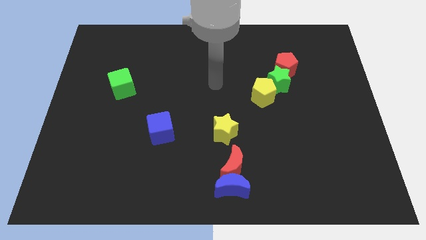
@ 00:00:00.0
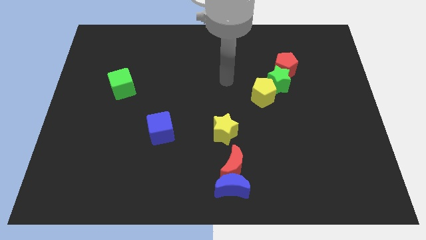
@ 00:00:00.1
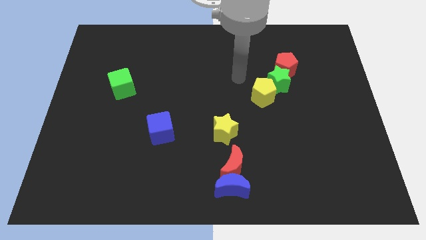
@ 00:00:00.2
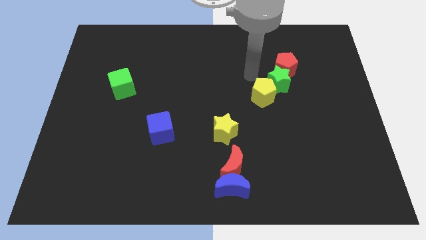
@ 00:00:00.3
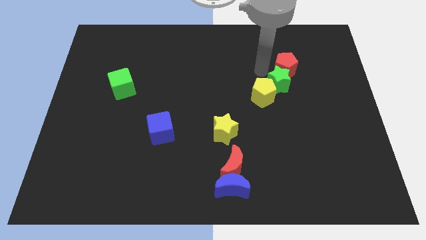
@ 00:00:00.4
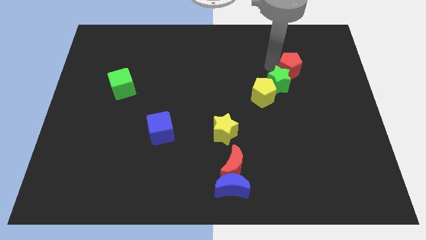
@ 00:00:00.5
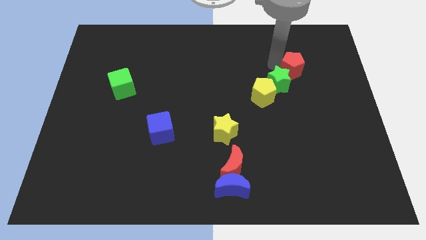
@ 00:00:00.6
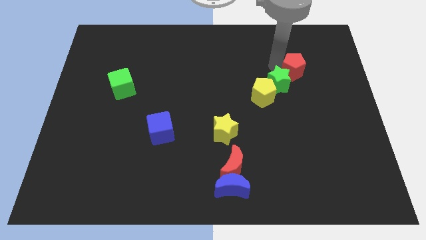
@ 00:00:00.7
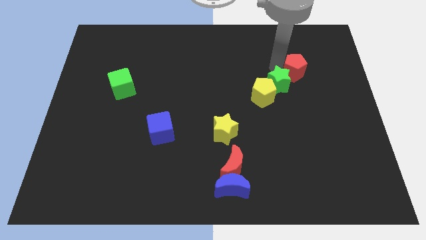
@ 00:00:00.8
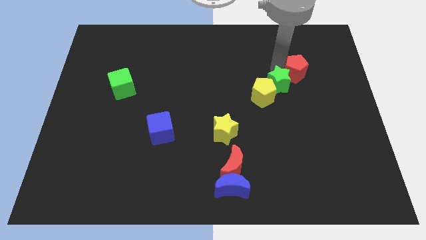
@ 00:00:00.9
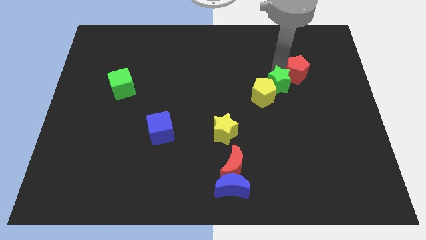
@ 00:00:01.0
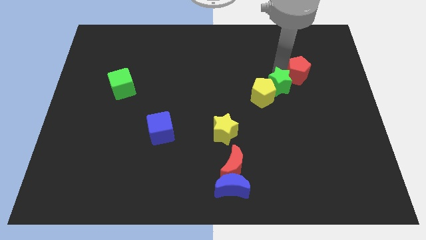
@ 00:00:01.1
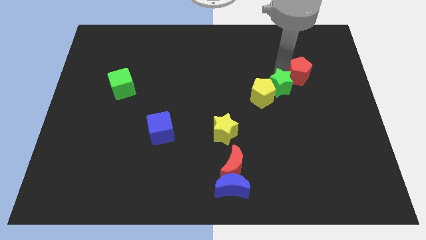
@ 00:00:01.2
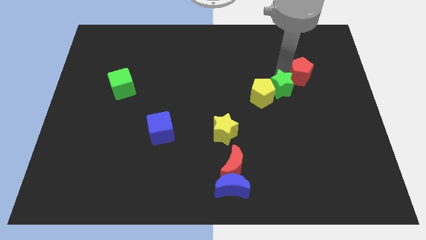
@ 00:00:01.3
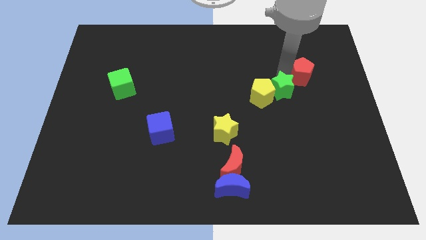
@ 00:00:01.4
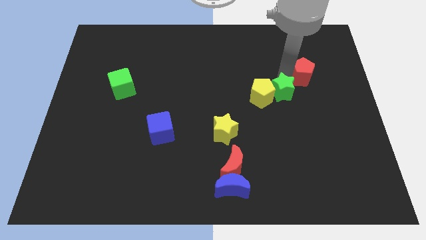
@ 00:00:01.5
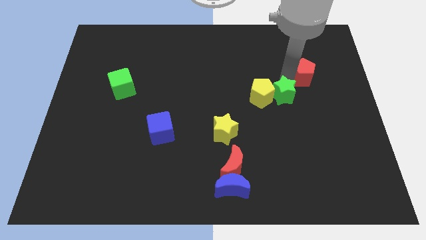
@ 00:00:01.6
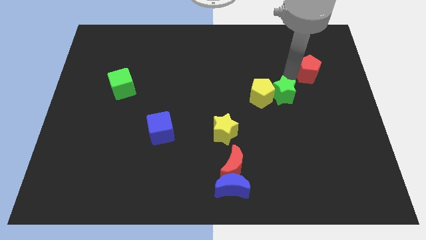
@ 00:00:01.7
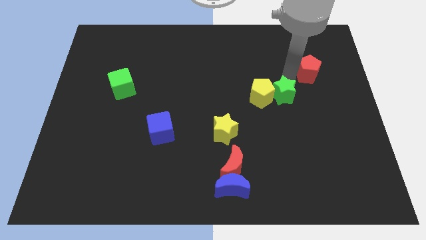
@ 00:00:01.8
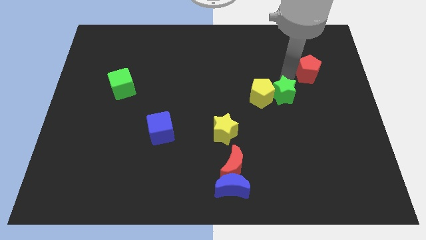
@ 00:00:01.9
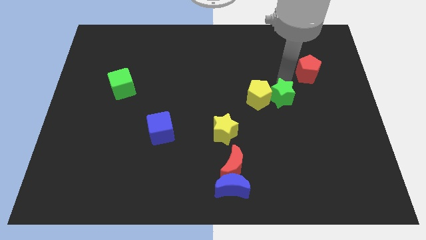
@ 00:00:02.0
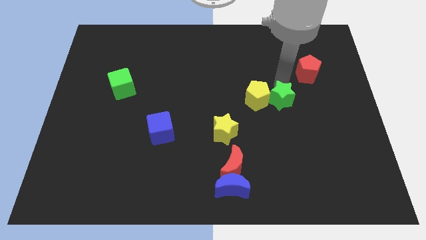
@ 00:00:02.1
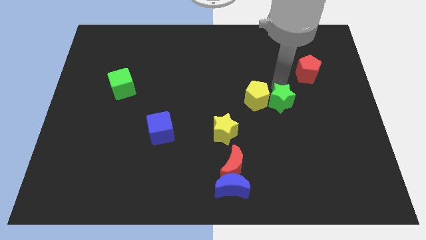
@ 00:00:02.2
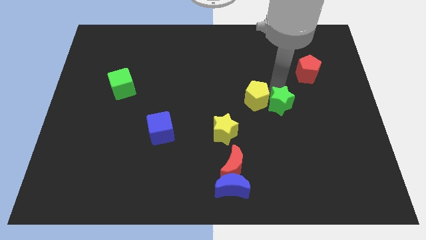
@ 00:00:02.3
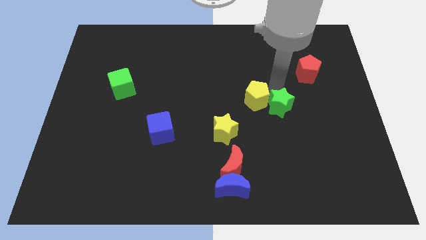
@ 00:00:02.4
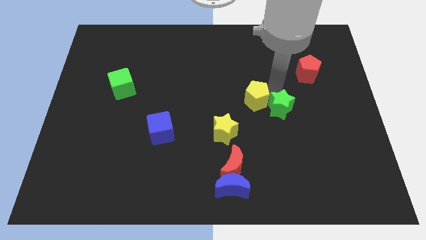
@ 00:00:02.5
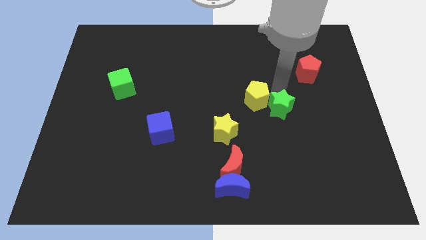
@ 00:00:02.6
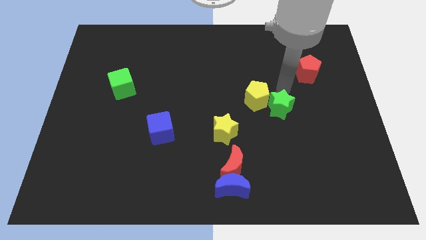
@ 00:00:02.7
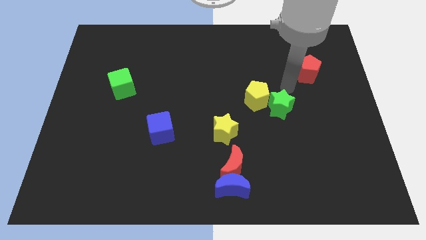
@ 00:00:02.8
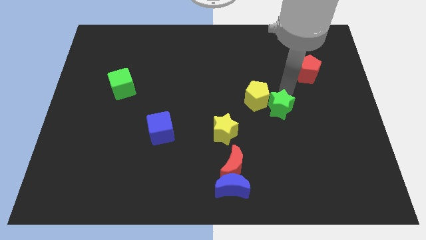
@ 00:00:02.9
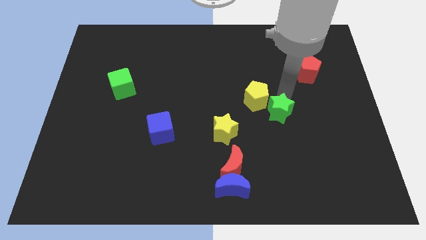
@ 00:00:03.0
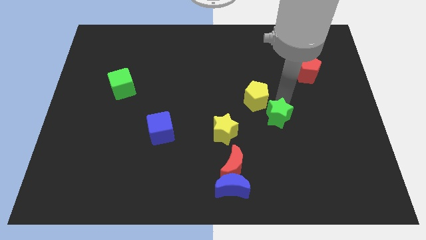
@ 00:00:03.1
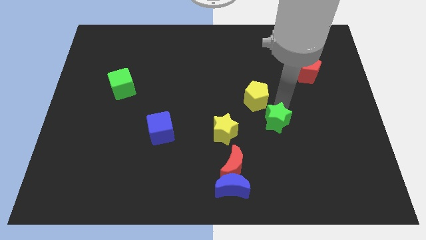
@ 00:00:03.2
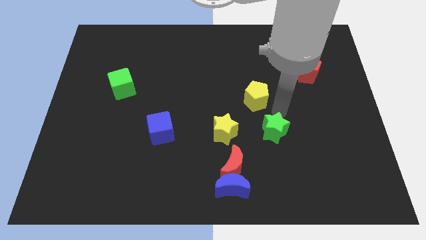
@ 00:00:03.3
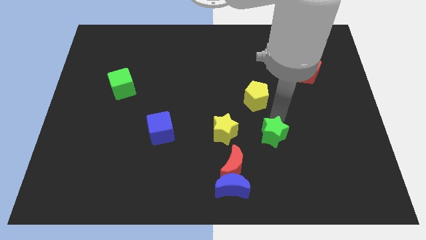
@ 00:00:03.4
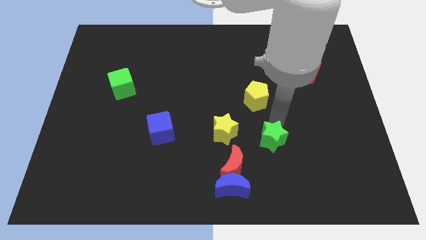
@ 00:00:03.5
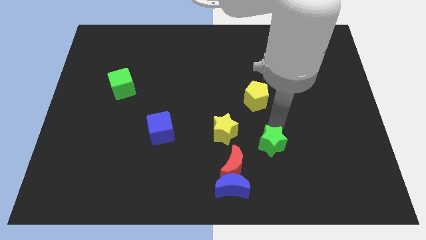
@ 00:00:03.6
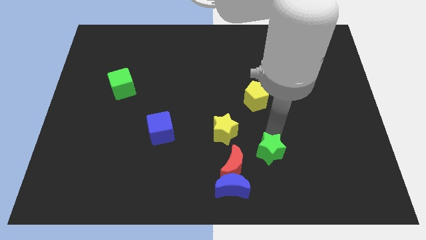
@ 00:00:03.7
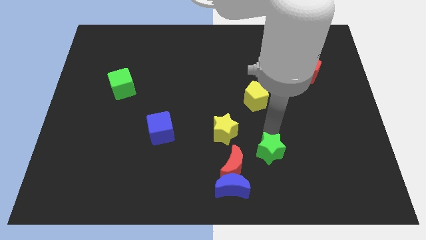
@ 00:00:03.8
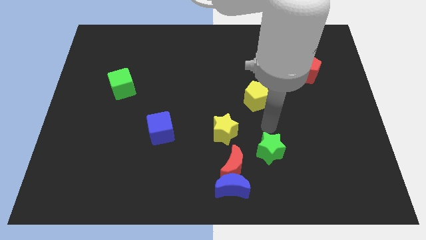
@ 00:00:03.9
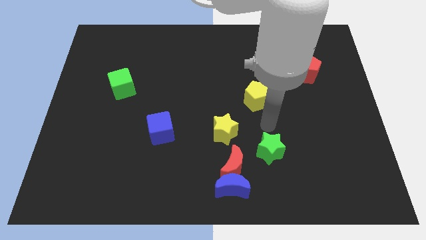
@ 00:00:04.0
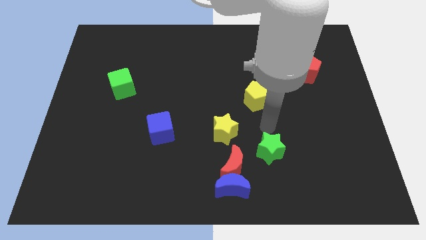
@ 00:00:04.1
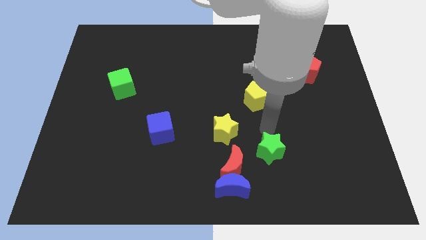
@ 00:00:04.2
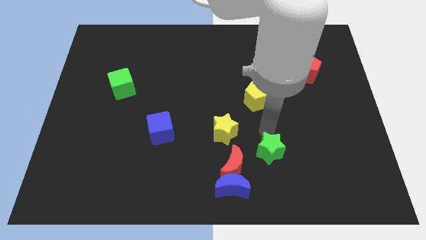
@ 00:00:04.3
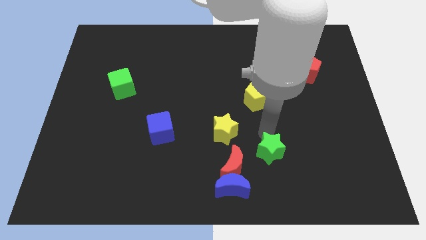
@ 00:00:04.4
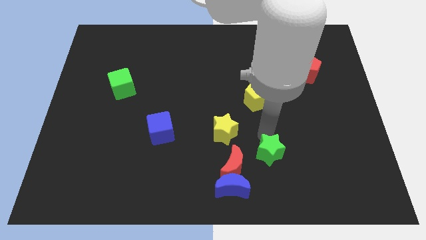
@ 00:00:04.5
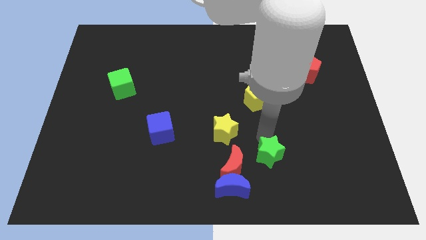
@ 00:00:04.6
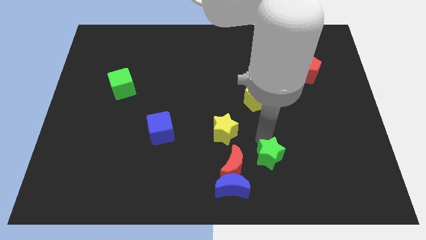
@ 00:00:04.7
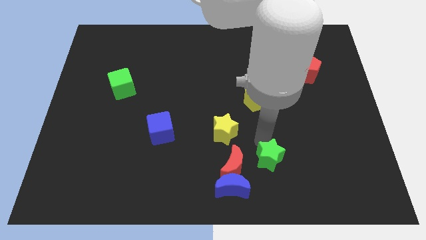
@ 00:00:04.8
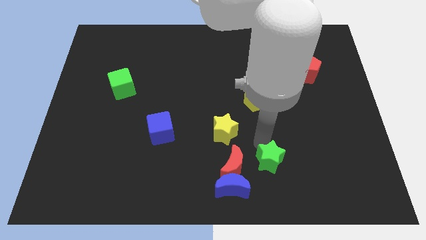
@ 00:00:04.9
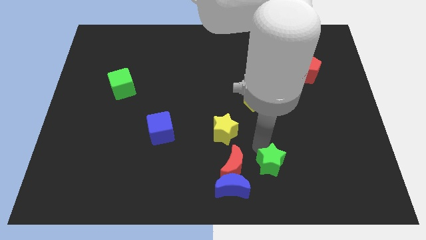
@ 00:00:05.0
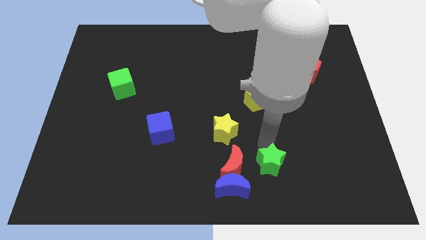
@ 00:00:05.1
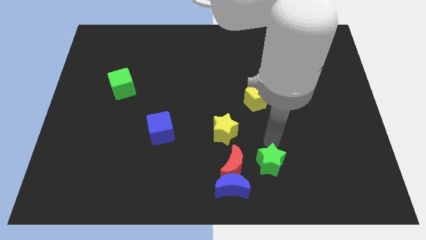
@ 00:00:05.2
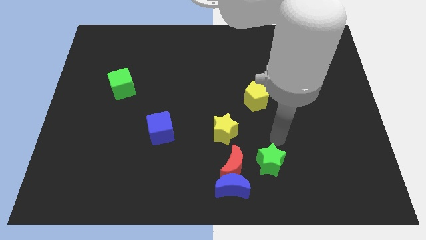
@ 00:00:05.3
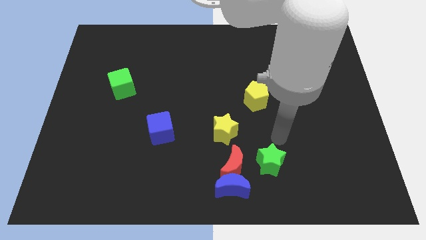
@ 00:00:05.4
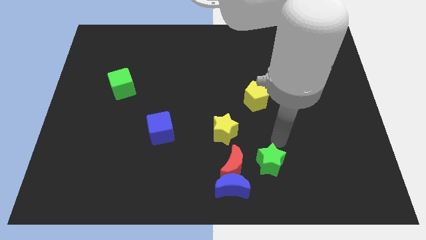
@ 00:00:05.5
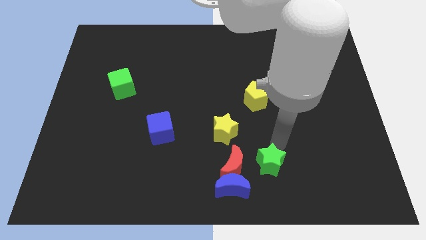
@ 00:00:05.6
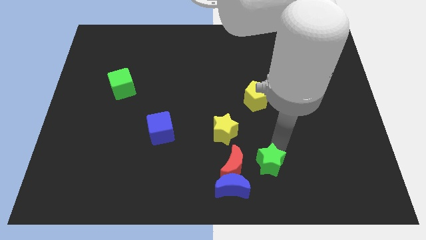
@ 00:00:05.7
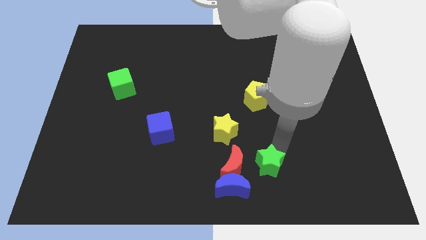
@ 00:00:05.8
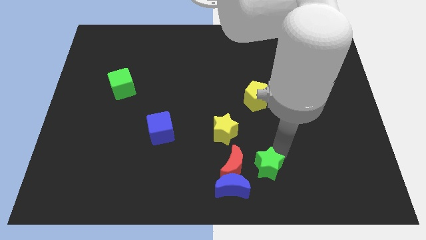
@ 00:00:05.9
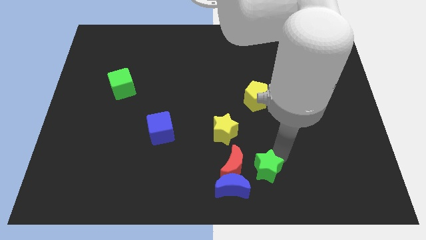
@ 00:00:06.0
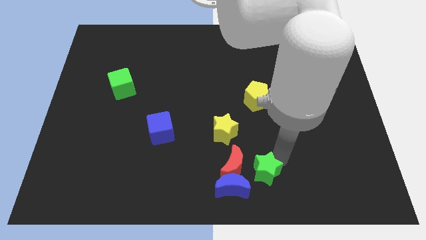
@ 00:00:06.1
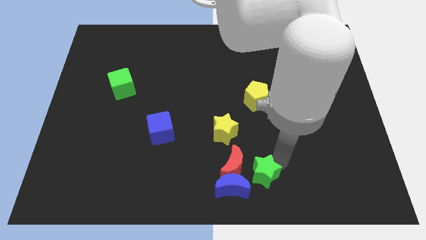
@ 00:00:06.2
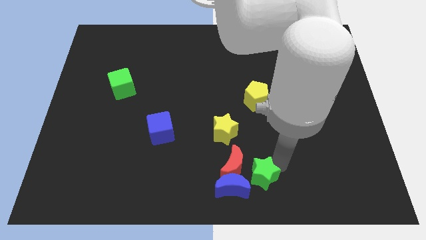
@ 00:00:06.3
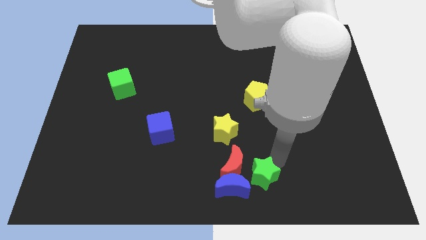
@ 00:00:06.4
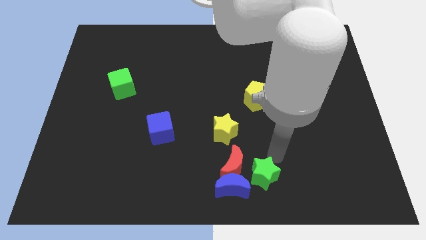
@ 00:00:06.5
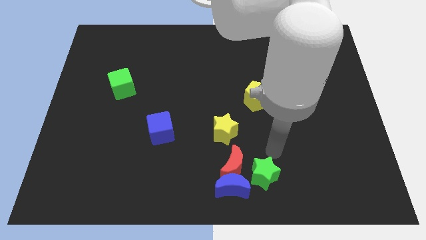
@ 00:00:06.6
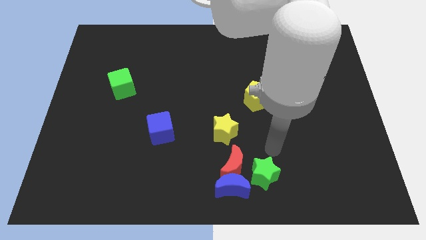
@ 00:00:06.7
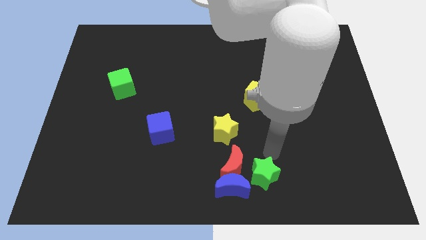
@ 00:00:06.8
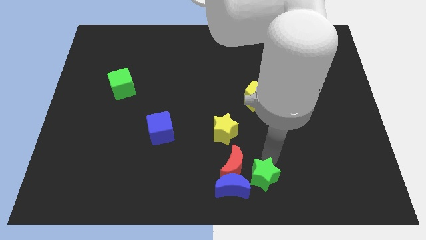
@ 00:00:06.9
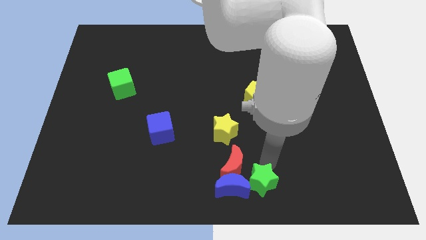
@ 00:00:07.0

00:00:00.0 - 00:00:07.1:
push the green star next to the blue moon
